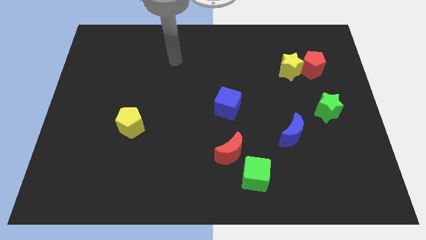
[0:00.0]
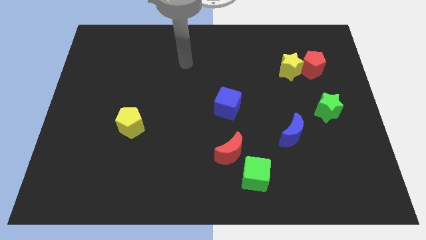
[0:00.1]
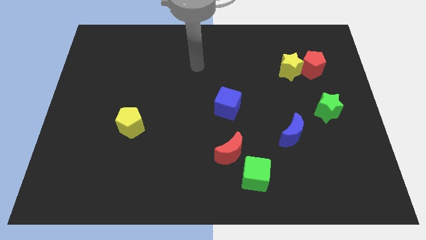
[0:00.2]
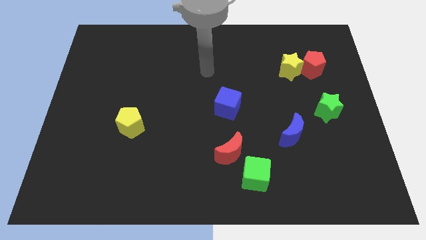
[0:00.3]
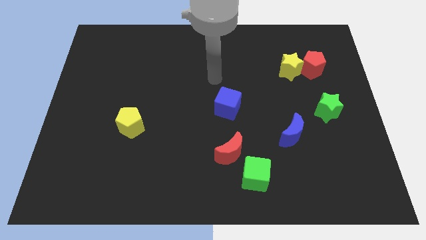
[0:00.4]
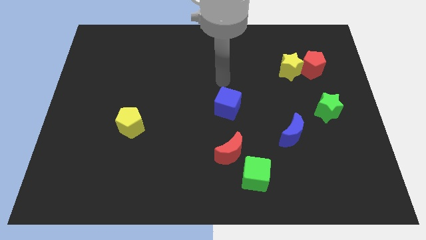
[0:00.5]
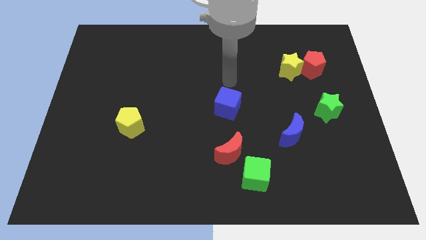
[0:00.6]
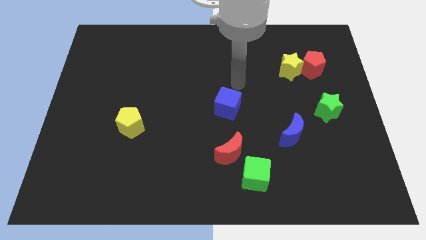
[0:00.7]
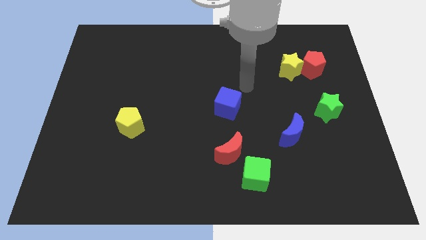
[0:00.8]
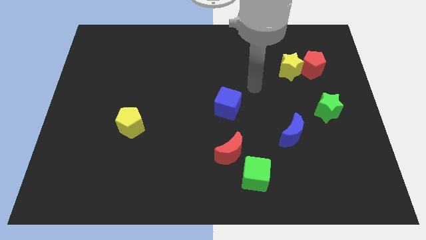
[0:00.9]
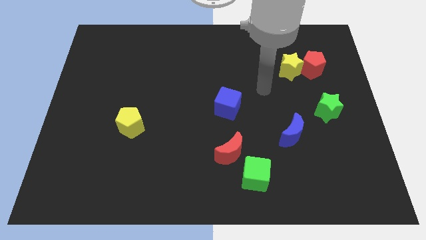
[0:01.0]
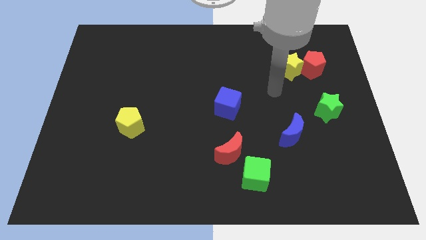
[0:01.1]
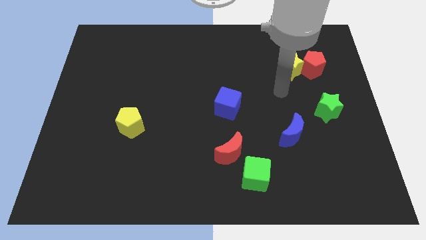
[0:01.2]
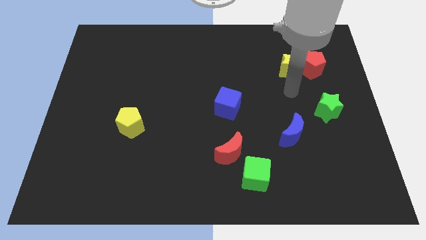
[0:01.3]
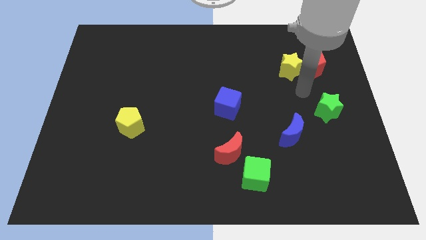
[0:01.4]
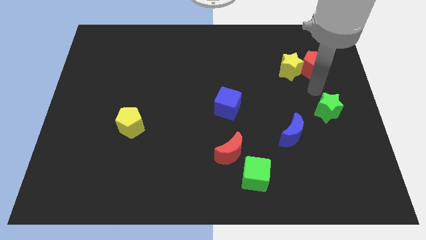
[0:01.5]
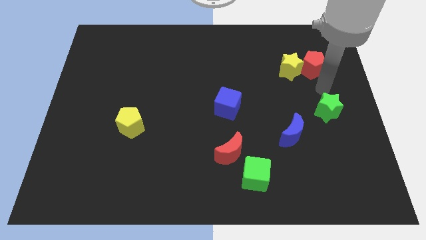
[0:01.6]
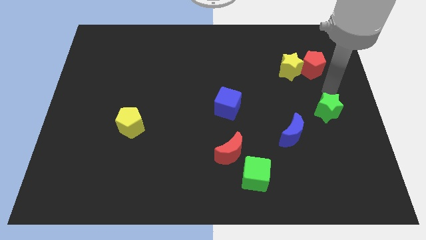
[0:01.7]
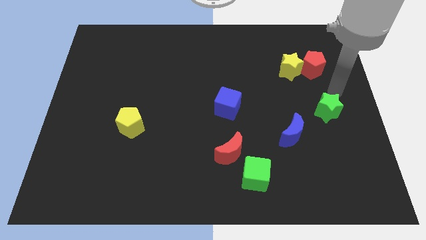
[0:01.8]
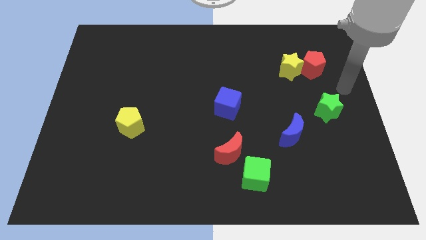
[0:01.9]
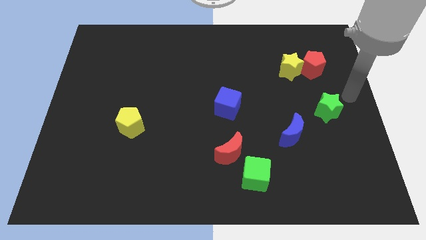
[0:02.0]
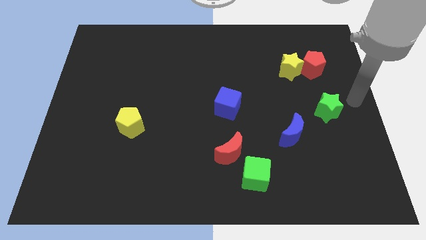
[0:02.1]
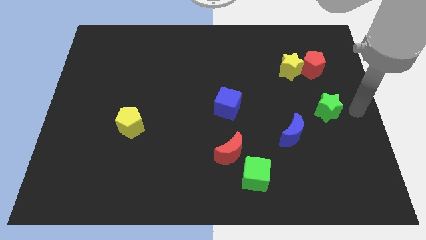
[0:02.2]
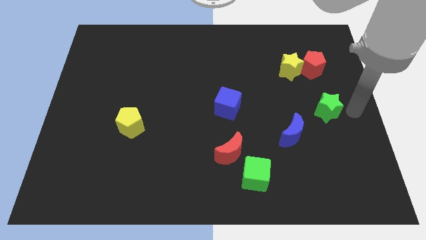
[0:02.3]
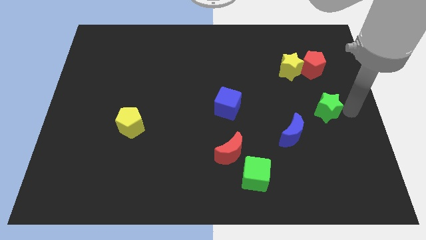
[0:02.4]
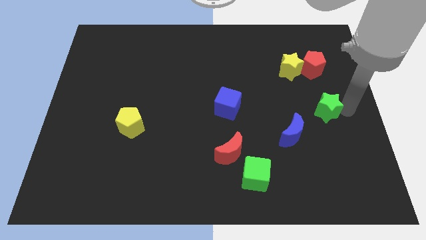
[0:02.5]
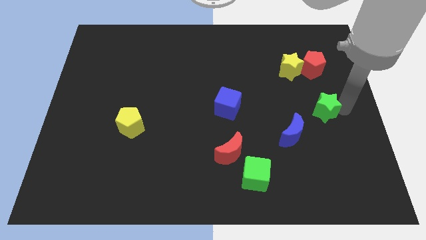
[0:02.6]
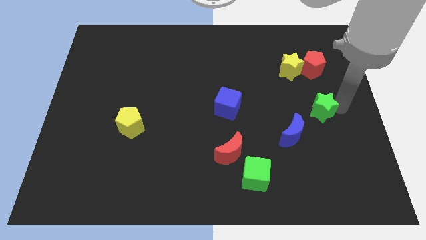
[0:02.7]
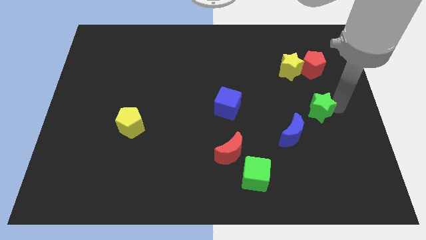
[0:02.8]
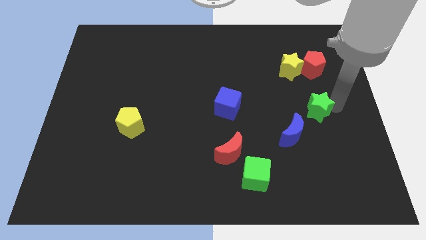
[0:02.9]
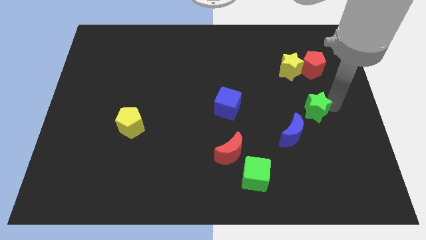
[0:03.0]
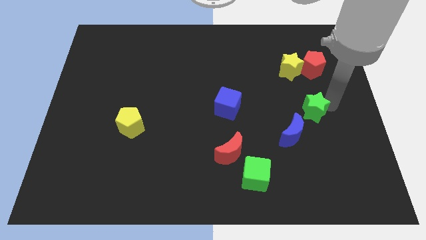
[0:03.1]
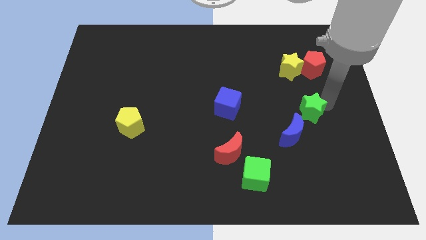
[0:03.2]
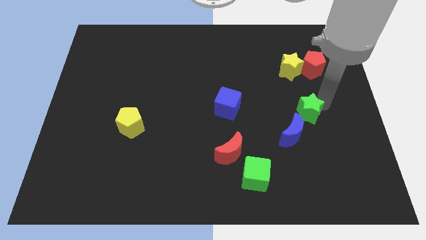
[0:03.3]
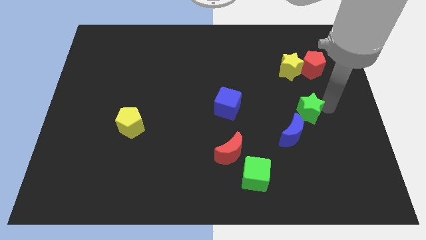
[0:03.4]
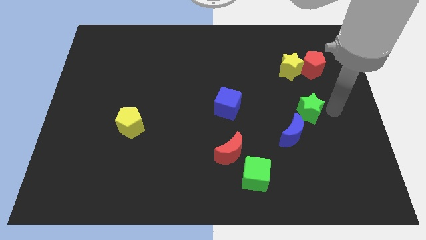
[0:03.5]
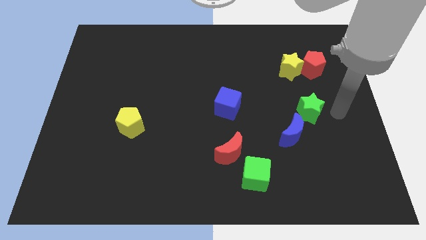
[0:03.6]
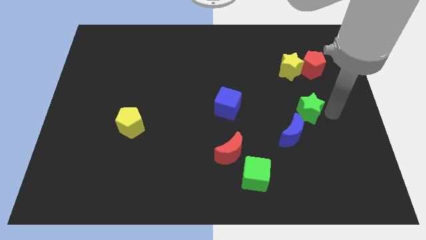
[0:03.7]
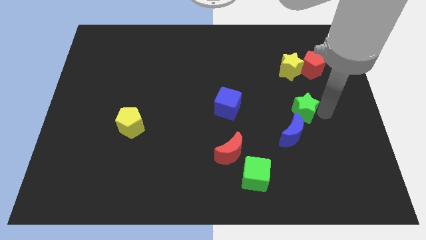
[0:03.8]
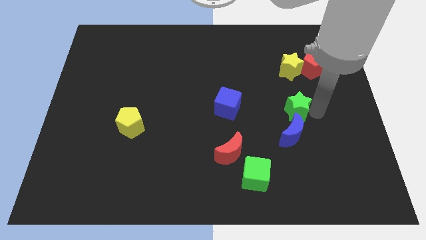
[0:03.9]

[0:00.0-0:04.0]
move the green star a little bit to the left

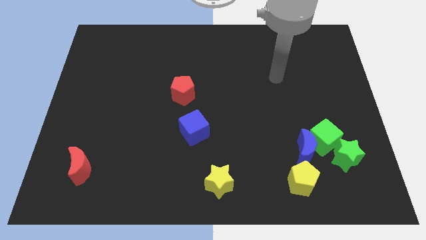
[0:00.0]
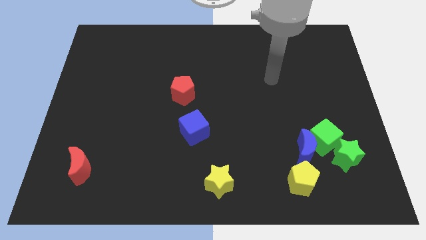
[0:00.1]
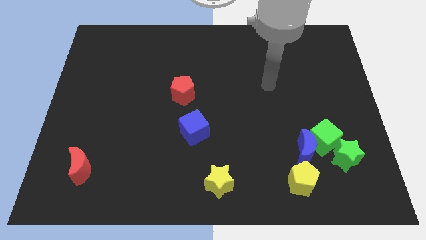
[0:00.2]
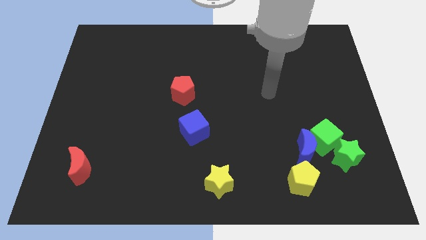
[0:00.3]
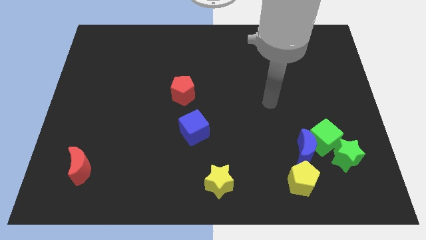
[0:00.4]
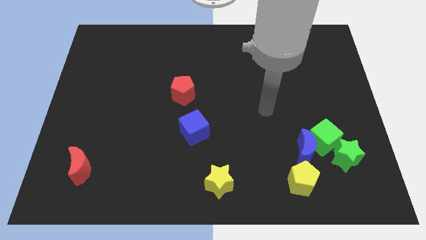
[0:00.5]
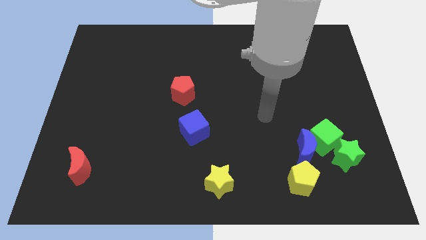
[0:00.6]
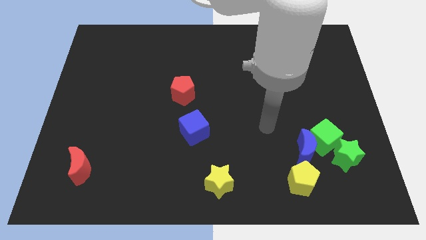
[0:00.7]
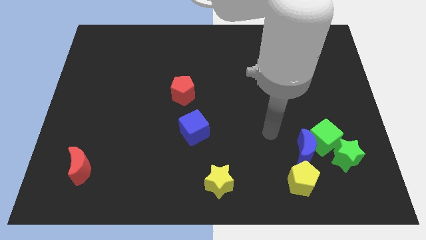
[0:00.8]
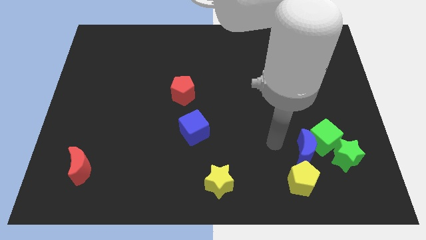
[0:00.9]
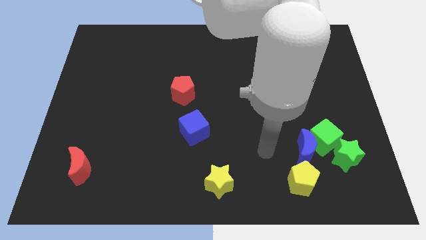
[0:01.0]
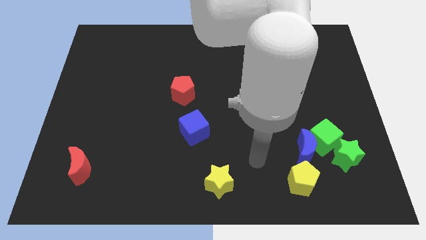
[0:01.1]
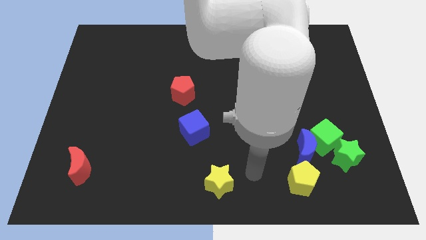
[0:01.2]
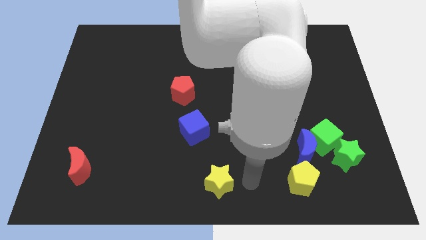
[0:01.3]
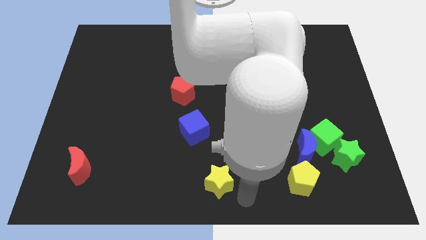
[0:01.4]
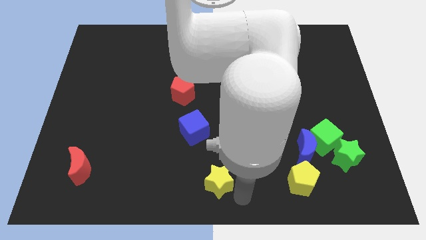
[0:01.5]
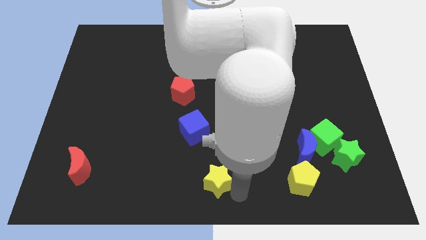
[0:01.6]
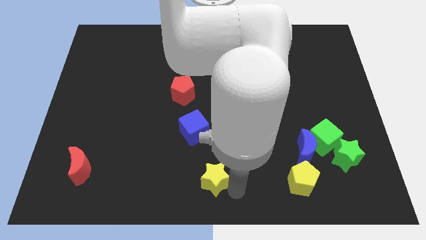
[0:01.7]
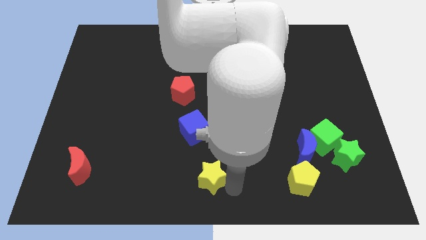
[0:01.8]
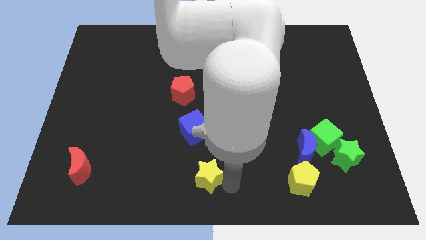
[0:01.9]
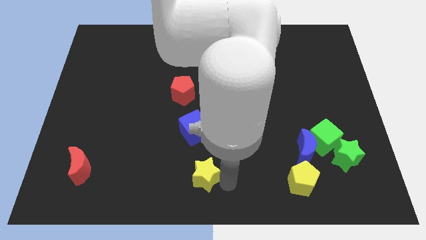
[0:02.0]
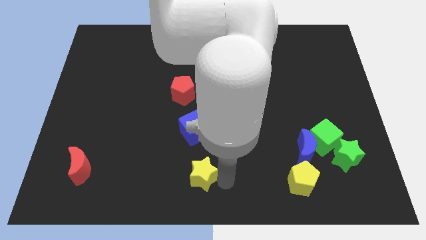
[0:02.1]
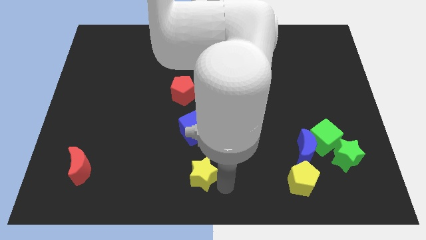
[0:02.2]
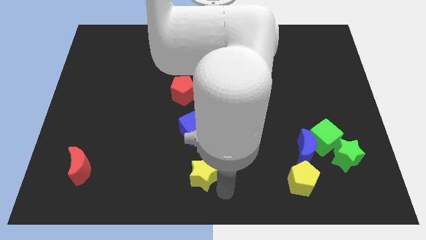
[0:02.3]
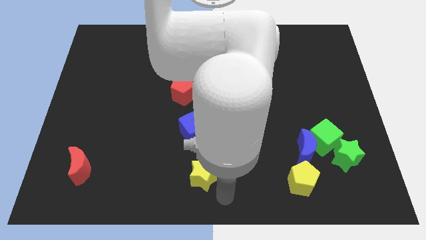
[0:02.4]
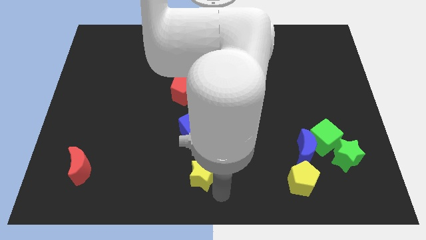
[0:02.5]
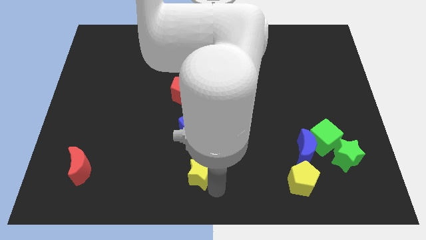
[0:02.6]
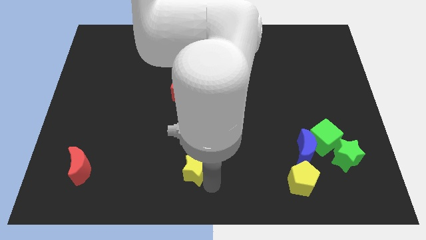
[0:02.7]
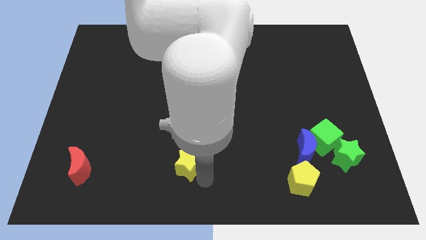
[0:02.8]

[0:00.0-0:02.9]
push the yellow star up and to the left diagonally a bit

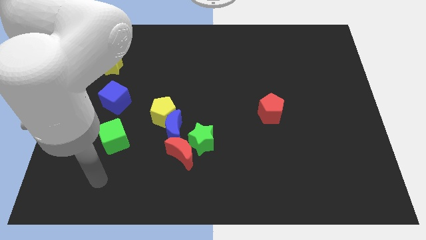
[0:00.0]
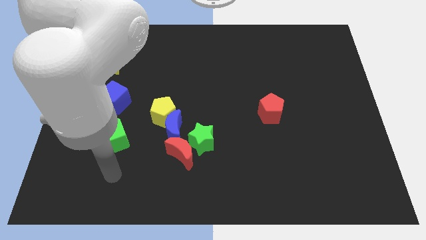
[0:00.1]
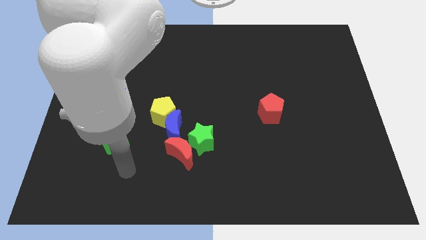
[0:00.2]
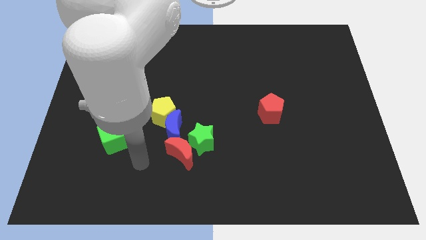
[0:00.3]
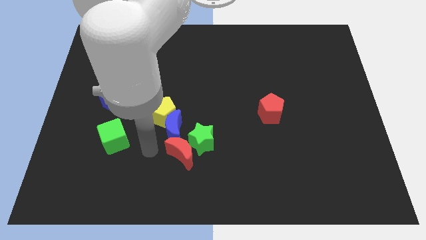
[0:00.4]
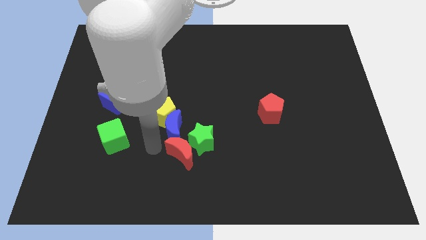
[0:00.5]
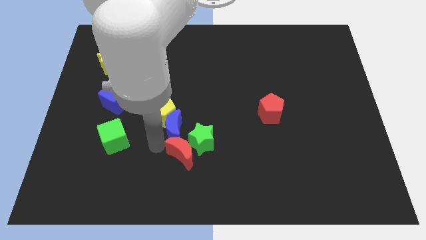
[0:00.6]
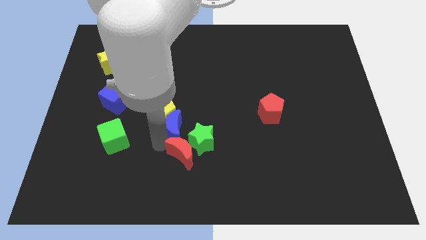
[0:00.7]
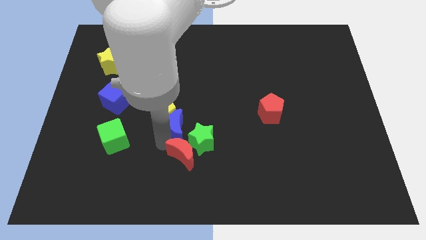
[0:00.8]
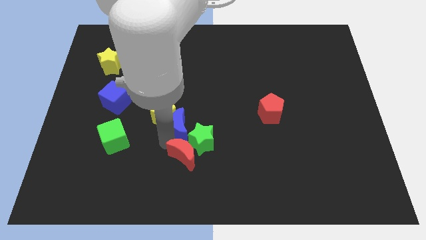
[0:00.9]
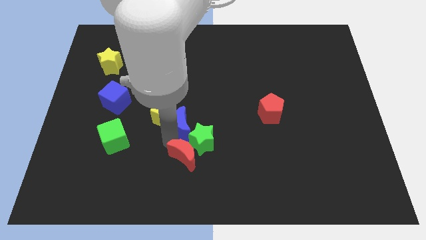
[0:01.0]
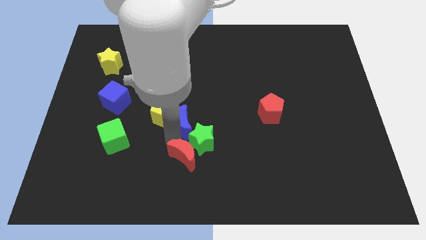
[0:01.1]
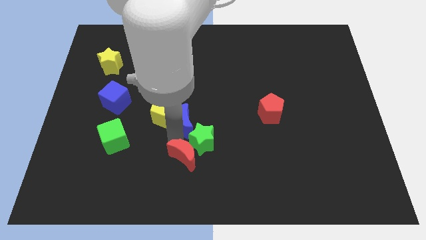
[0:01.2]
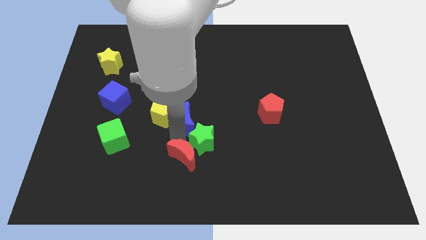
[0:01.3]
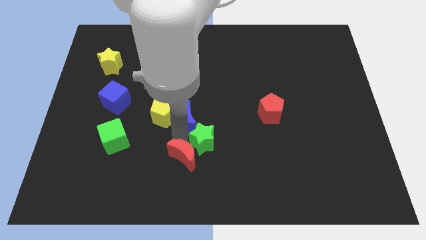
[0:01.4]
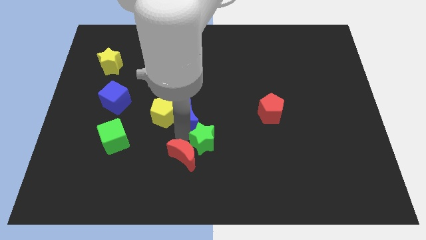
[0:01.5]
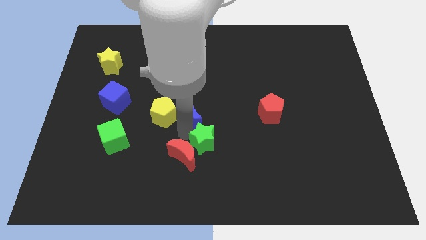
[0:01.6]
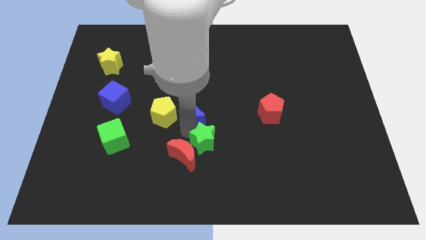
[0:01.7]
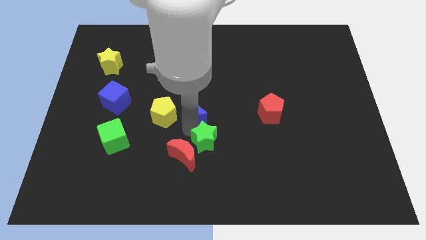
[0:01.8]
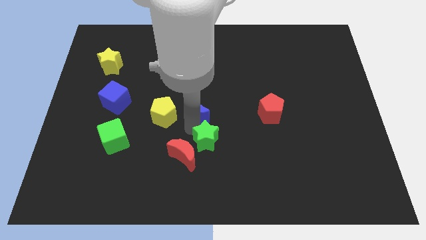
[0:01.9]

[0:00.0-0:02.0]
push the blue moon up and right a bit
